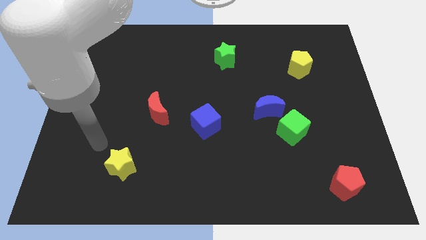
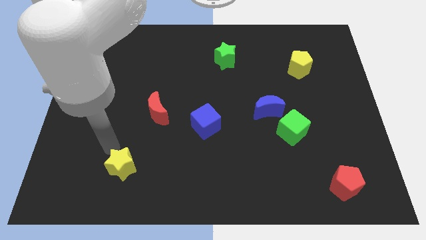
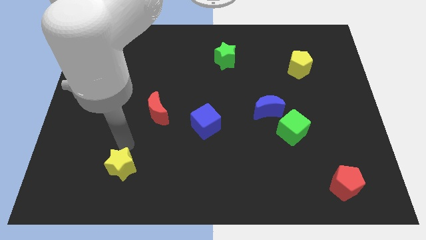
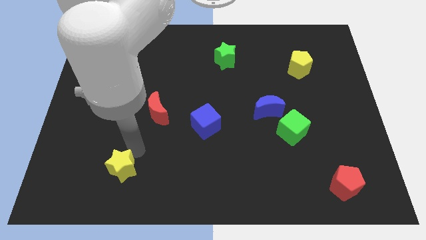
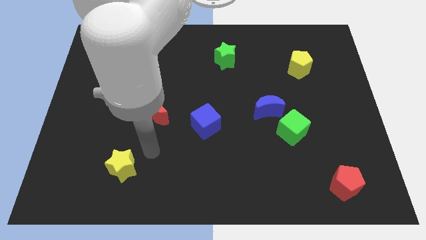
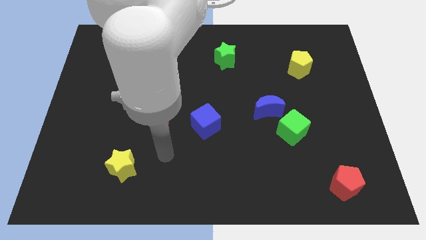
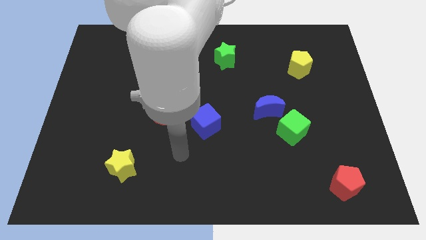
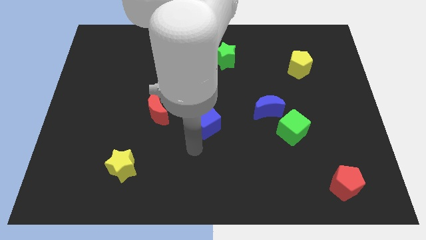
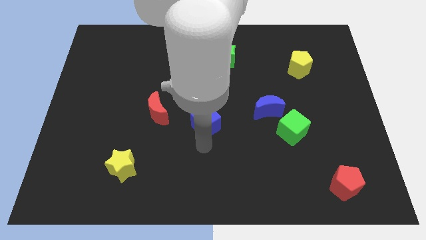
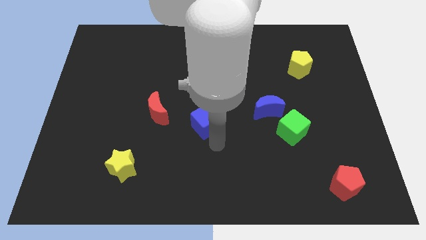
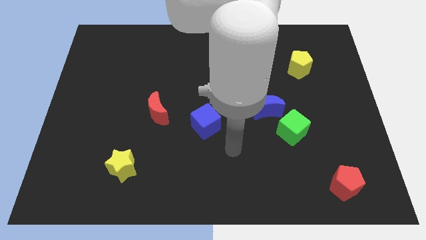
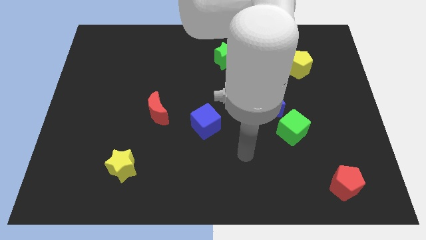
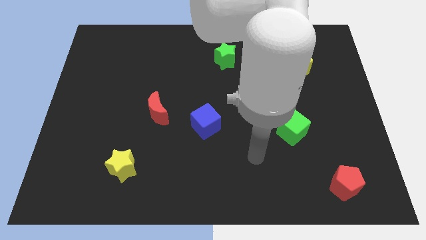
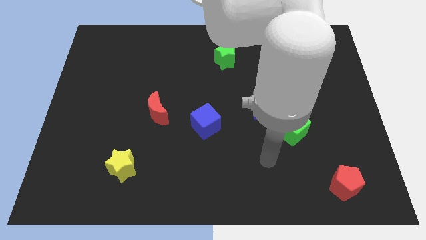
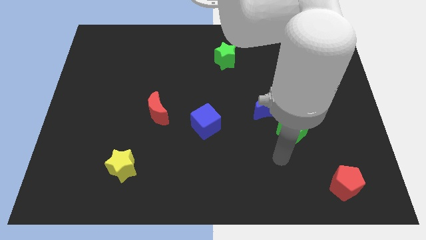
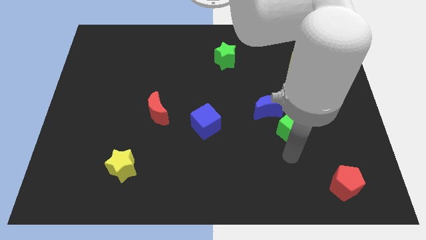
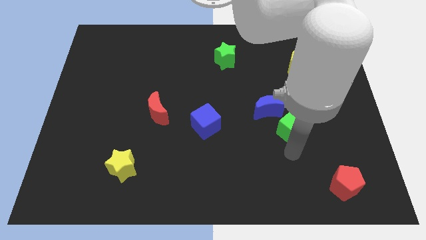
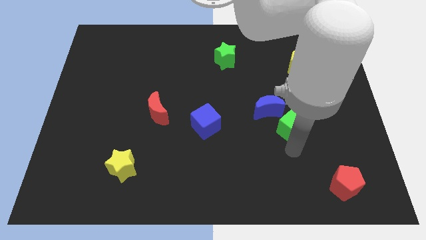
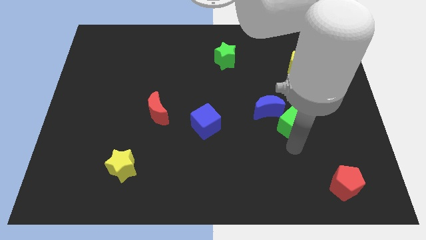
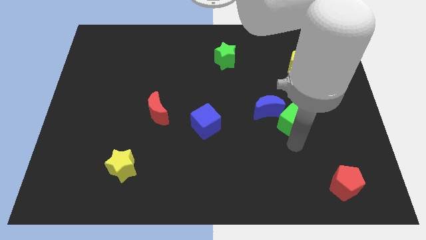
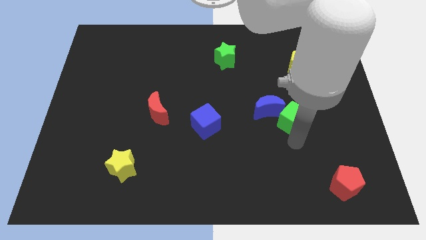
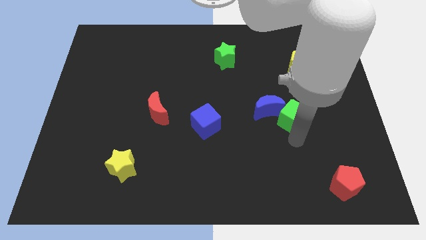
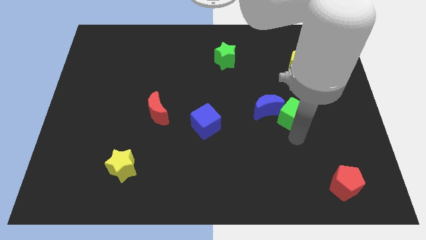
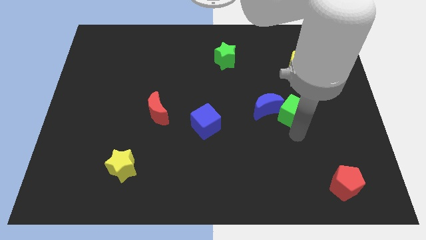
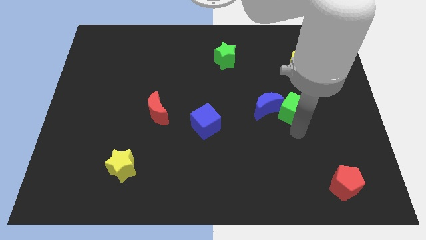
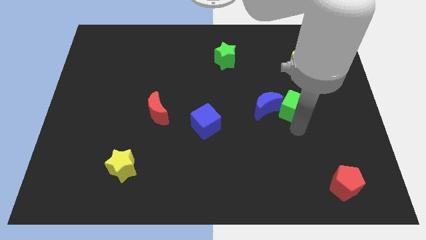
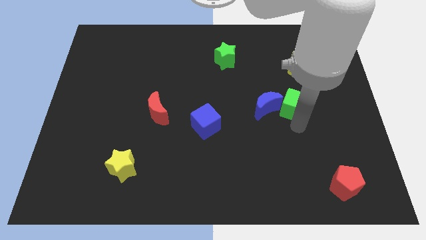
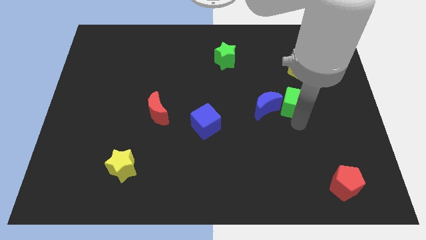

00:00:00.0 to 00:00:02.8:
move the green cube upwards slightly

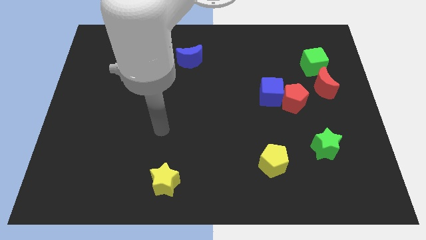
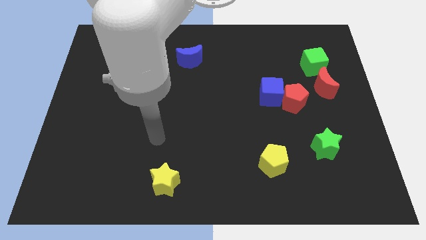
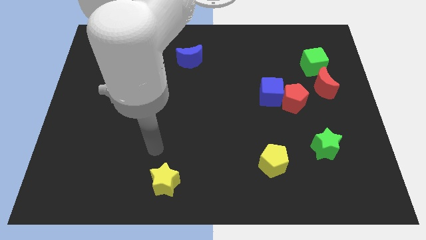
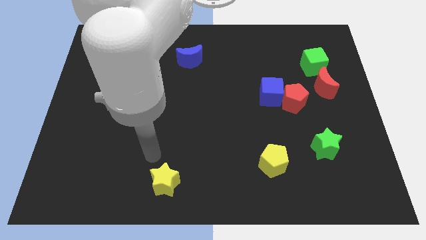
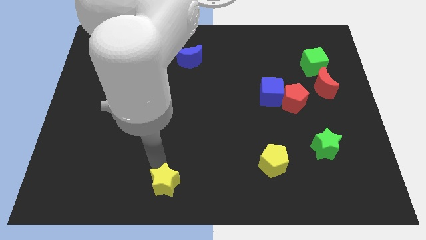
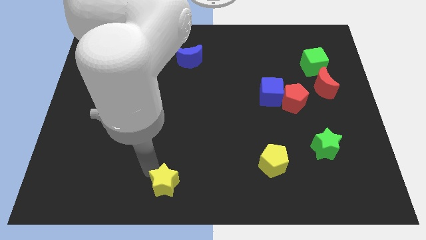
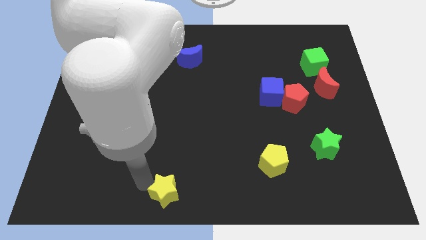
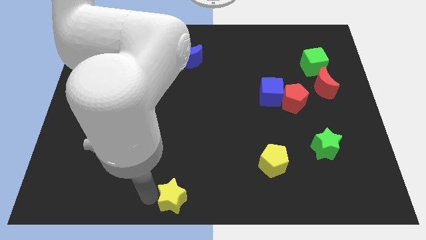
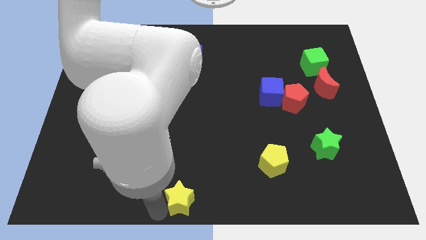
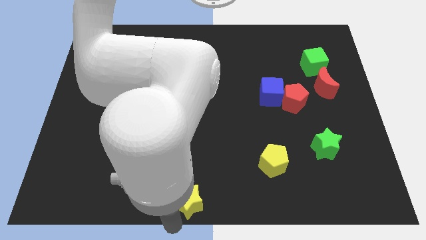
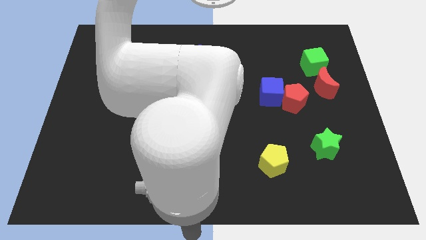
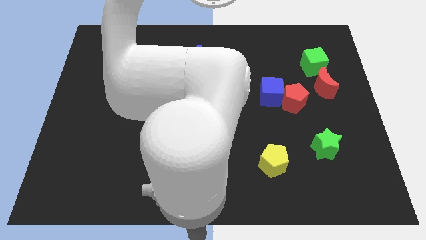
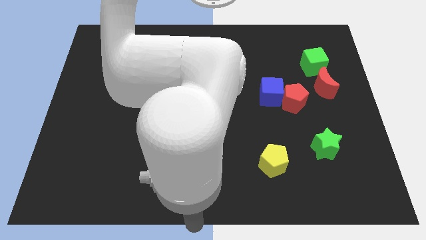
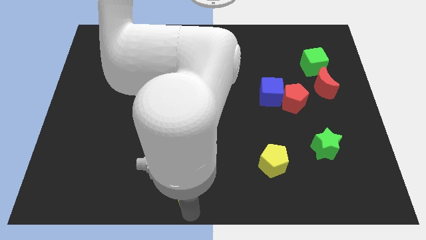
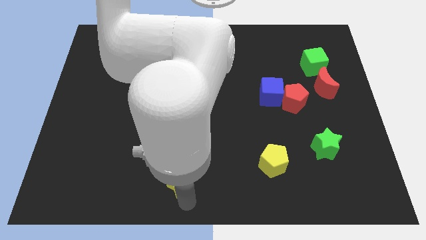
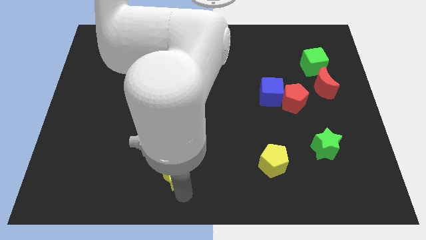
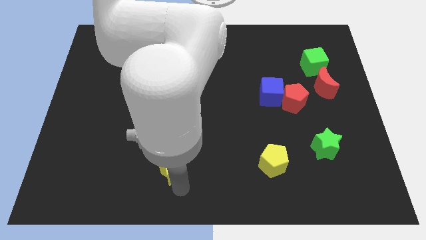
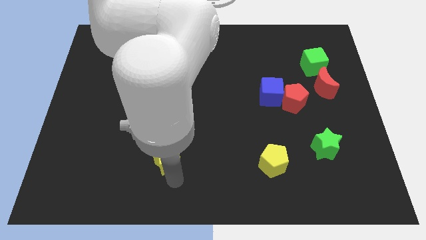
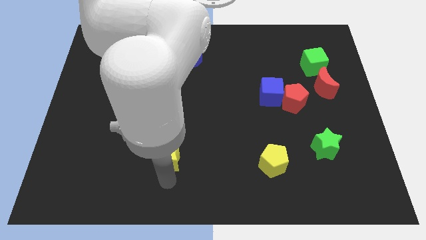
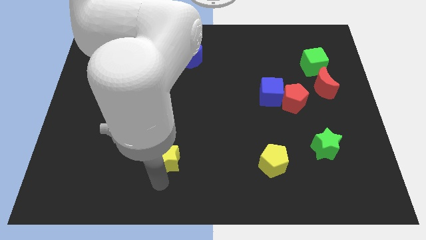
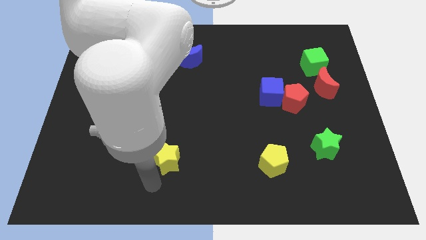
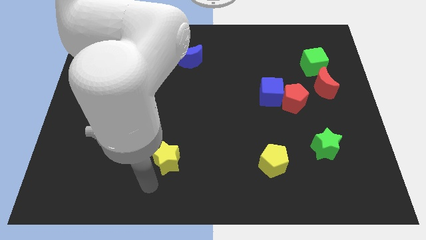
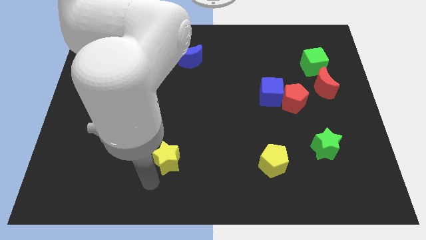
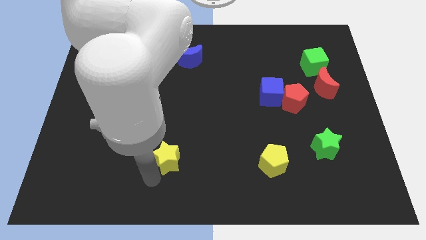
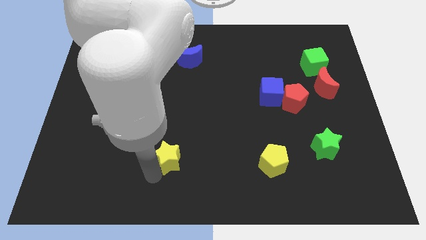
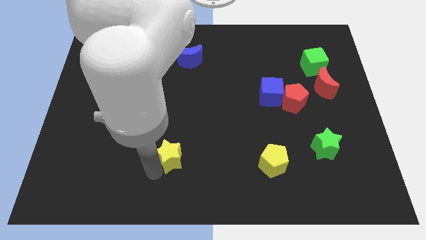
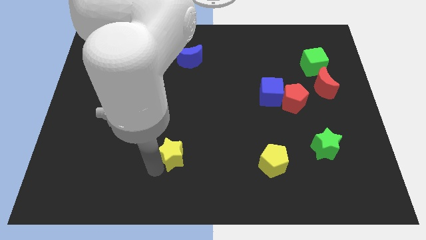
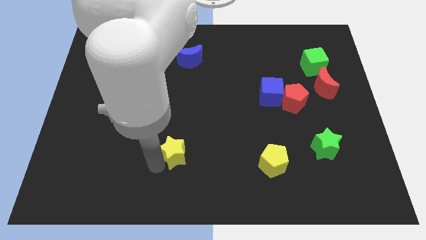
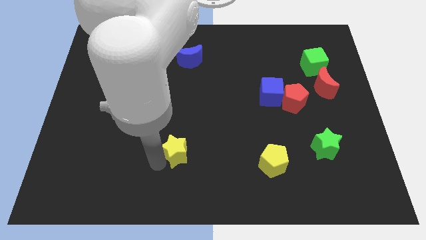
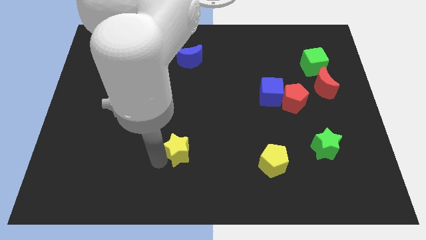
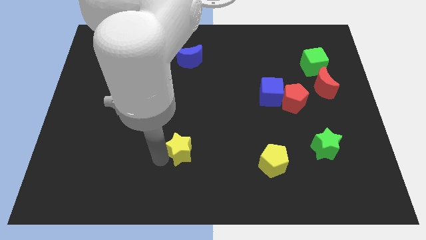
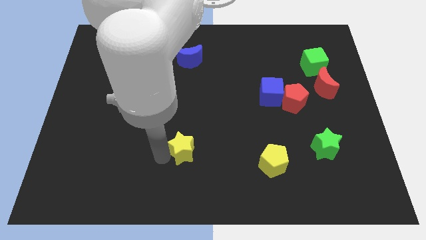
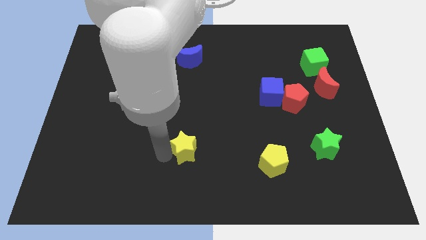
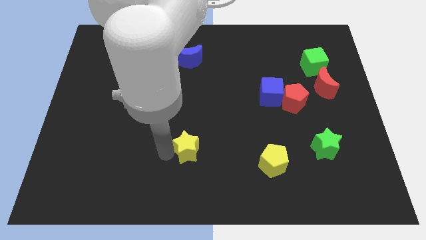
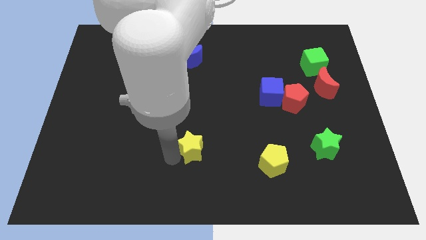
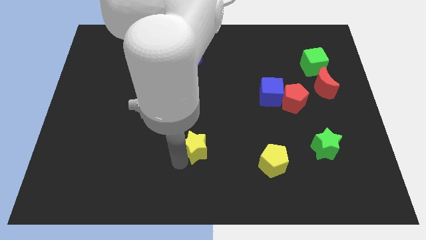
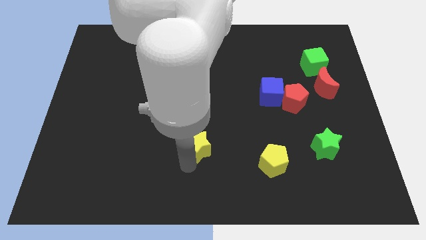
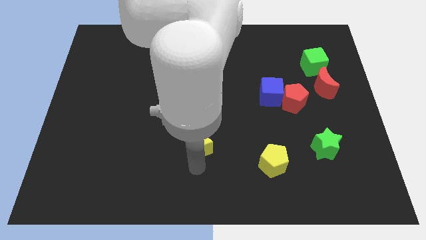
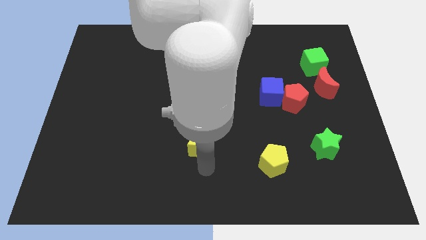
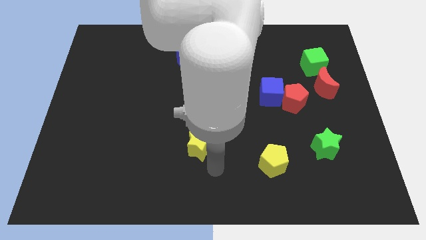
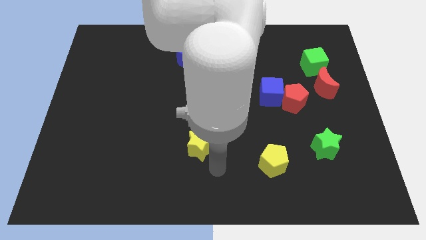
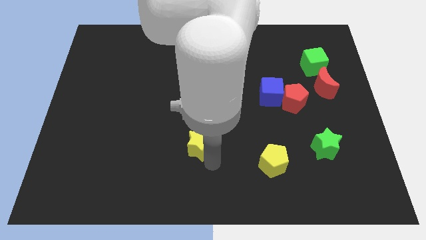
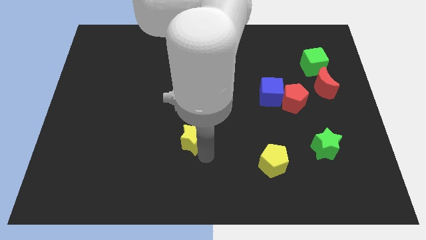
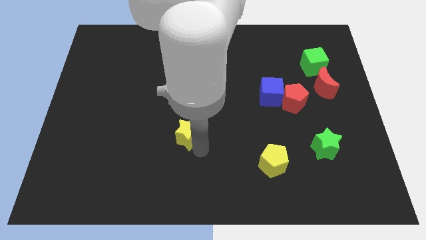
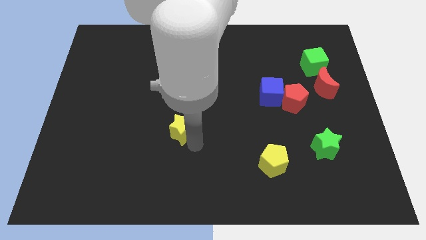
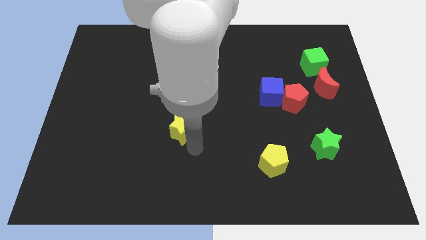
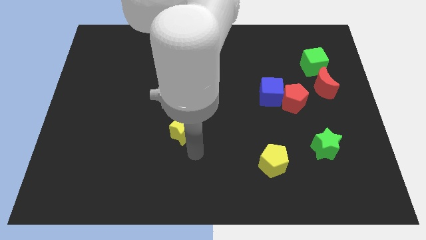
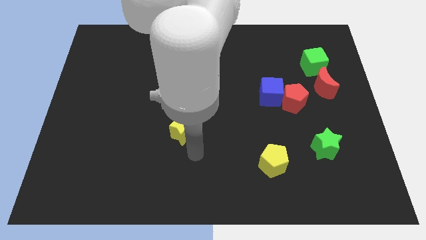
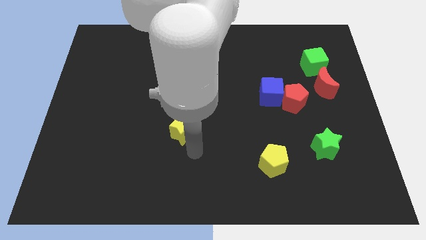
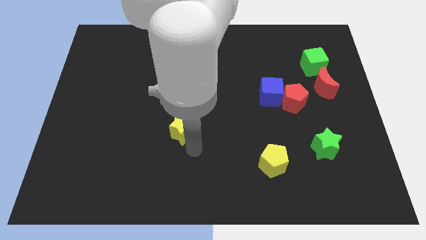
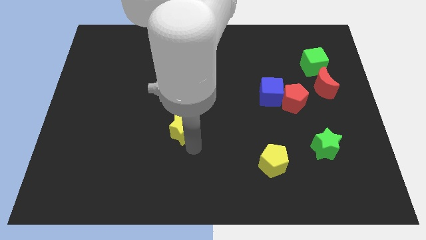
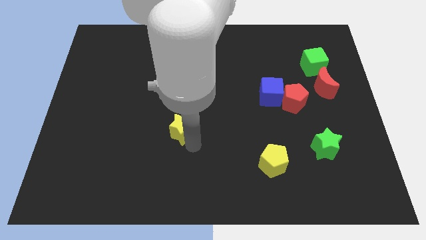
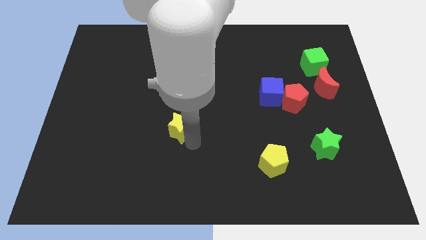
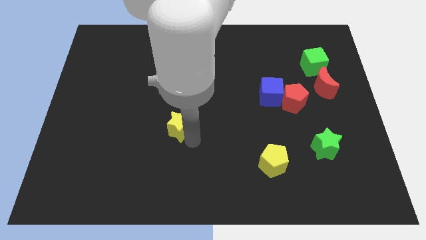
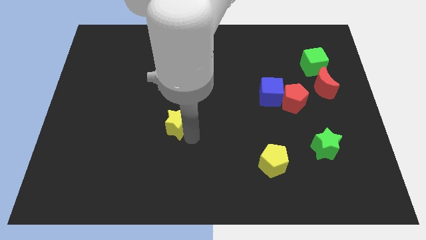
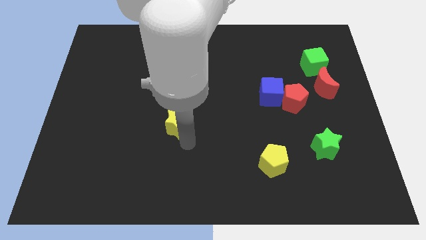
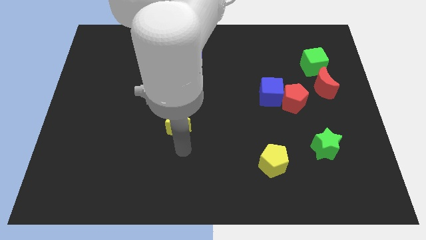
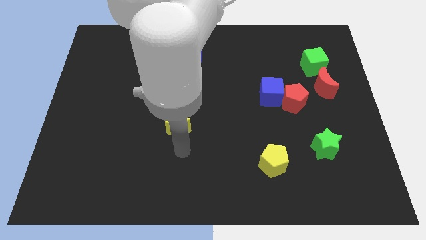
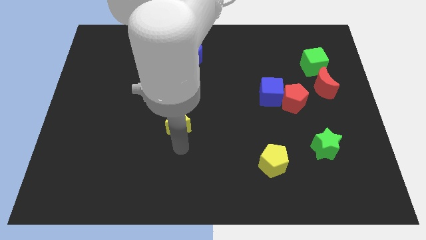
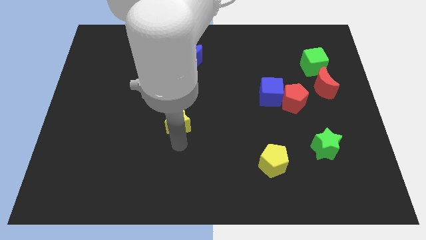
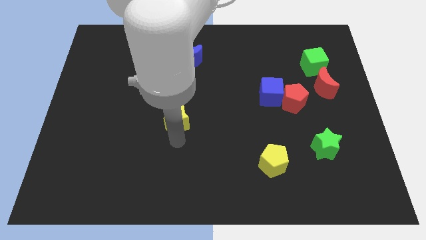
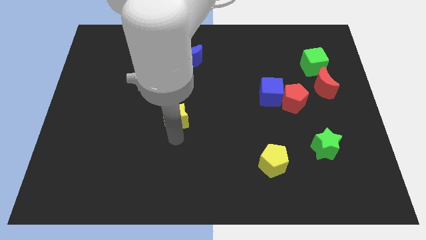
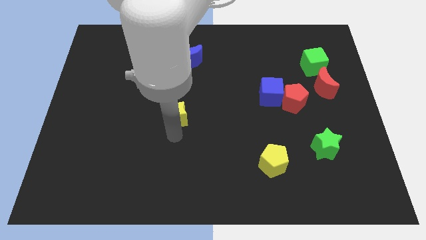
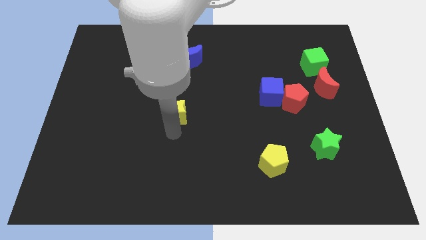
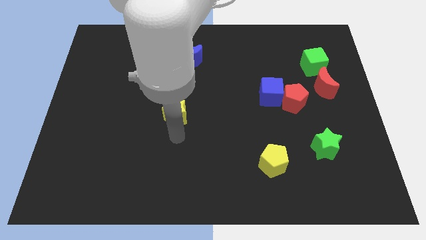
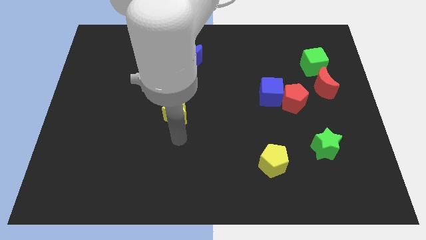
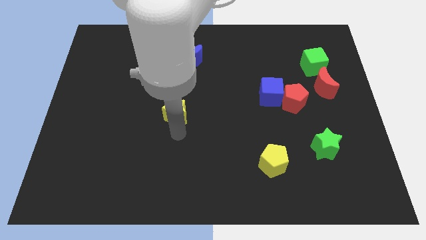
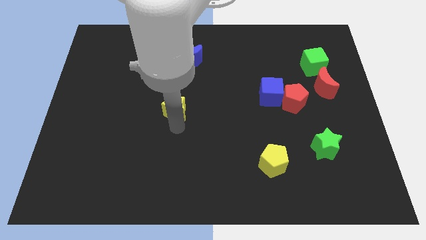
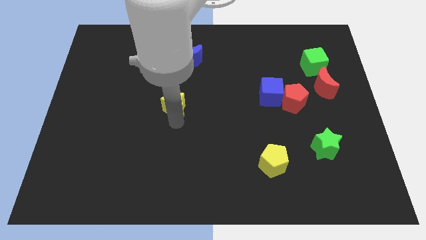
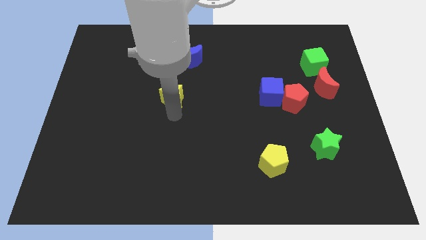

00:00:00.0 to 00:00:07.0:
move the yellow star upwards
